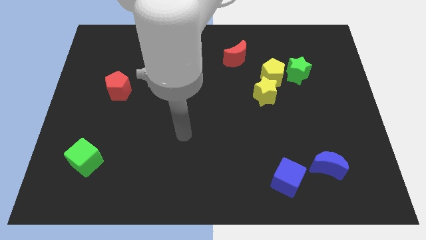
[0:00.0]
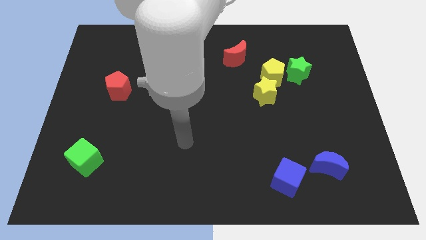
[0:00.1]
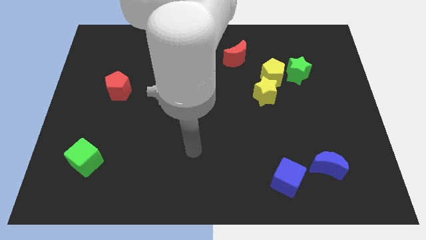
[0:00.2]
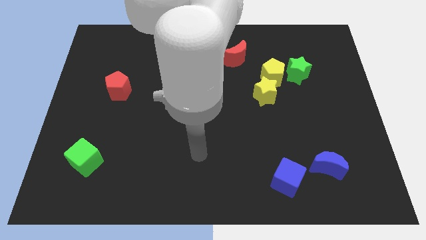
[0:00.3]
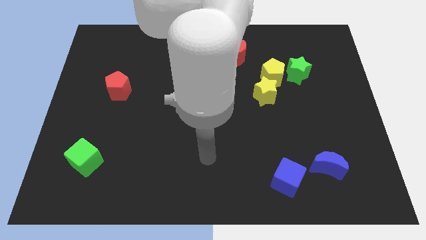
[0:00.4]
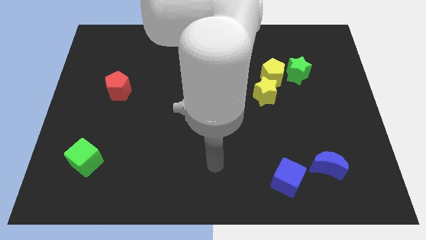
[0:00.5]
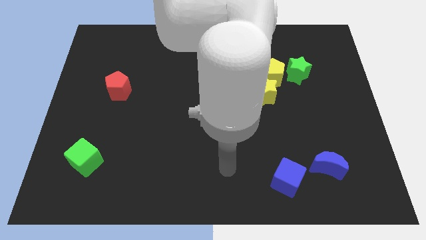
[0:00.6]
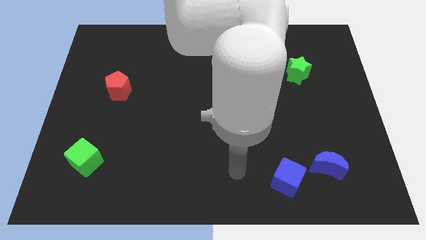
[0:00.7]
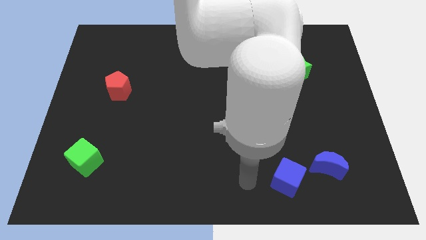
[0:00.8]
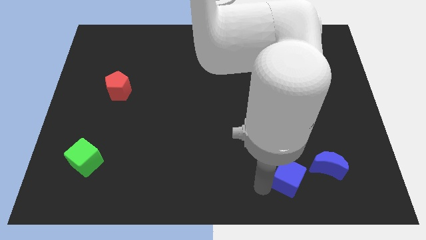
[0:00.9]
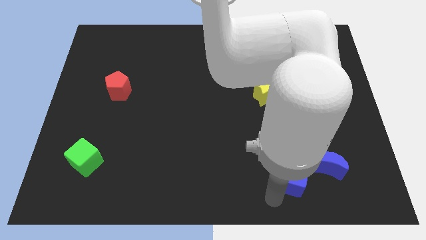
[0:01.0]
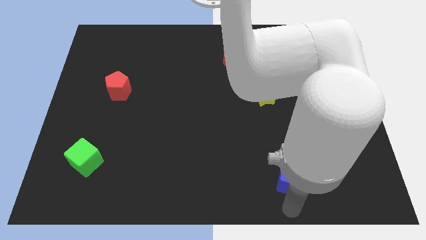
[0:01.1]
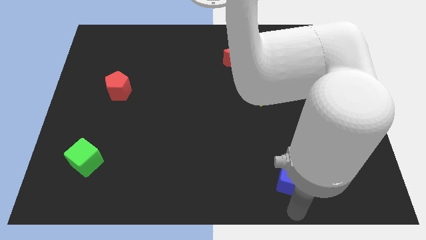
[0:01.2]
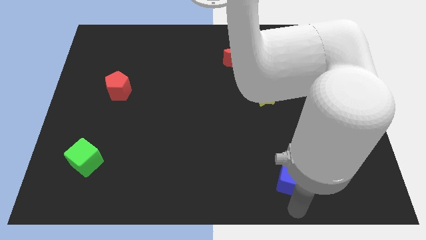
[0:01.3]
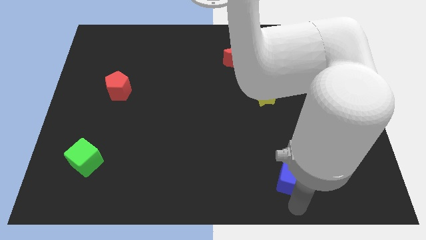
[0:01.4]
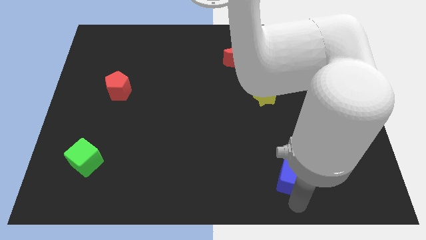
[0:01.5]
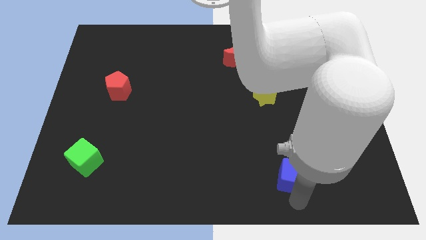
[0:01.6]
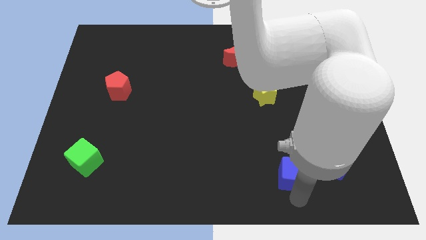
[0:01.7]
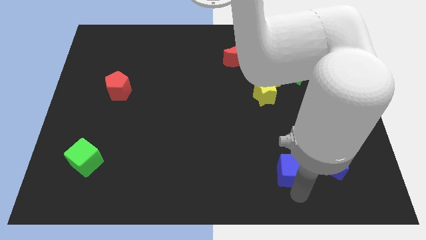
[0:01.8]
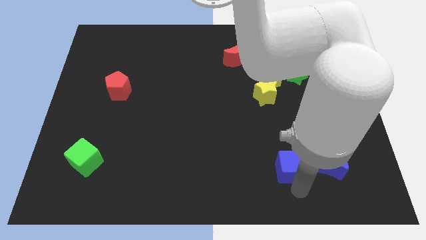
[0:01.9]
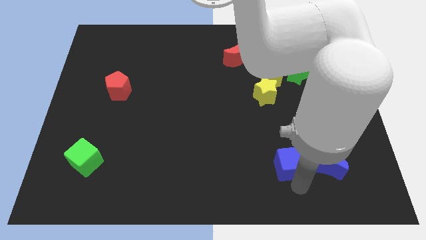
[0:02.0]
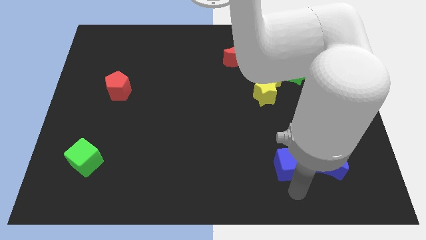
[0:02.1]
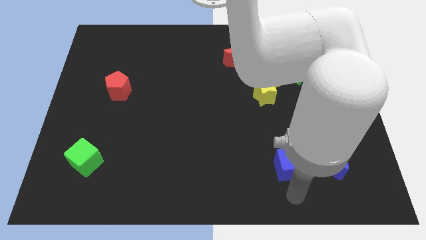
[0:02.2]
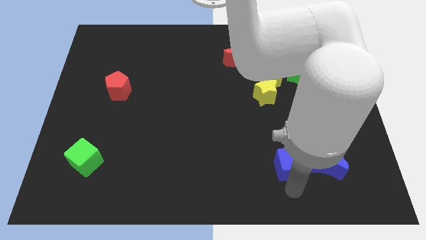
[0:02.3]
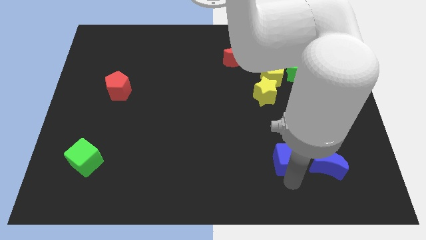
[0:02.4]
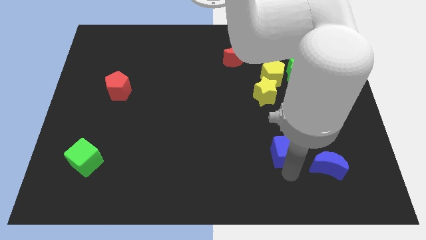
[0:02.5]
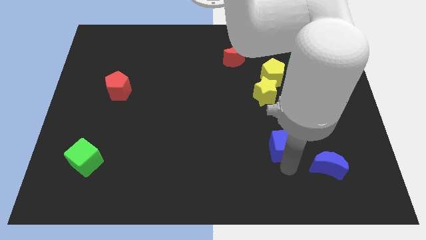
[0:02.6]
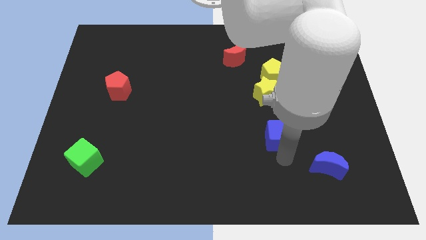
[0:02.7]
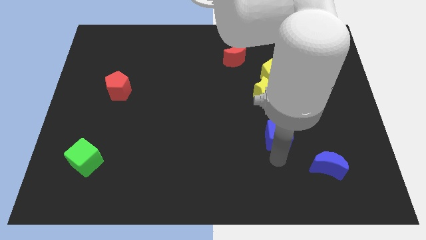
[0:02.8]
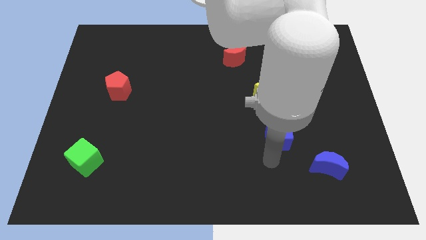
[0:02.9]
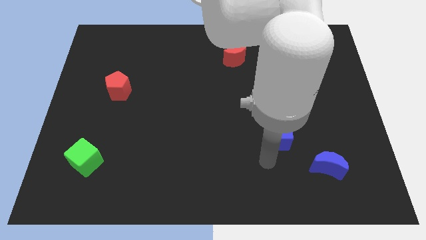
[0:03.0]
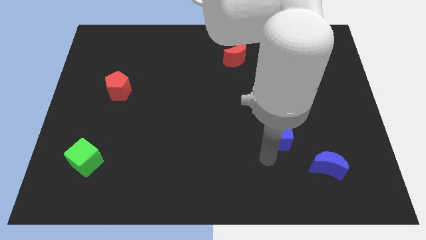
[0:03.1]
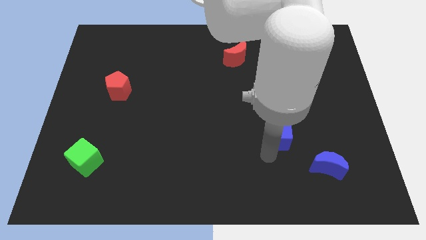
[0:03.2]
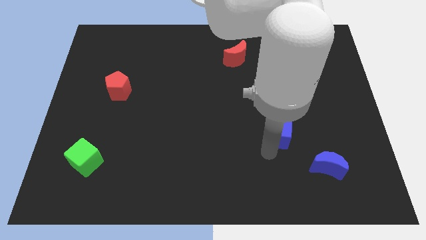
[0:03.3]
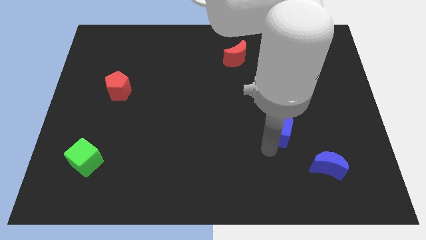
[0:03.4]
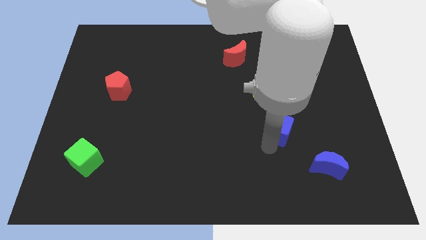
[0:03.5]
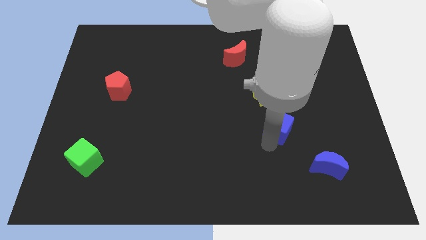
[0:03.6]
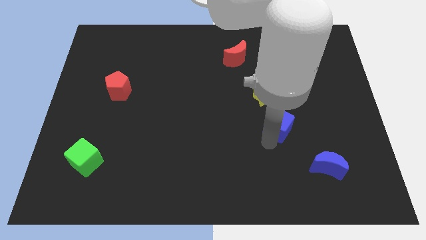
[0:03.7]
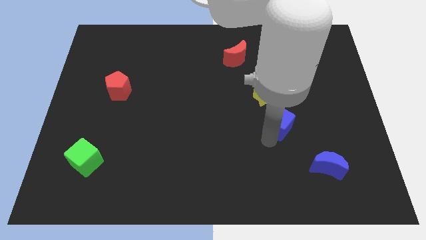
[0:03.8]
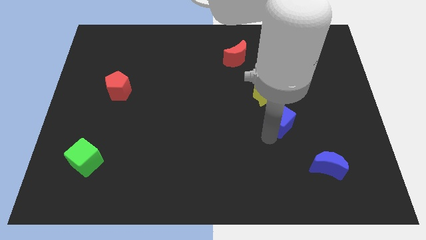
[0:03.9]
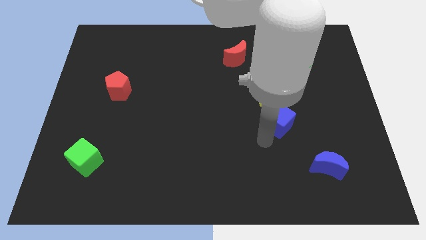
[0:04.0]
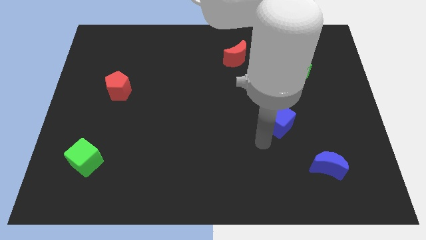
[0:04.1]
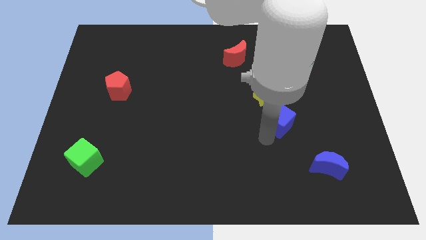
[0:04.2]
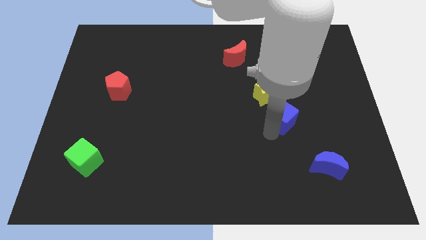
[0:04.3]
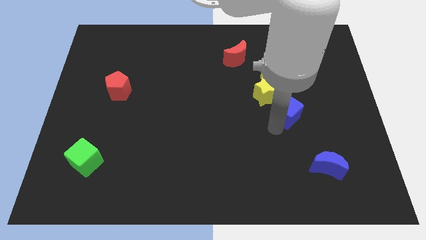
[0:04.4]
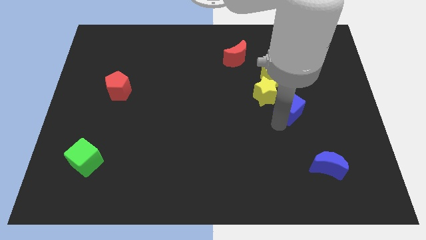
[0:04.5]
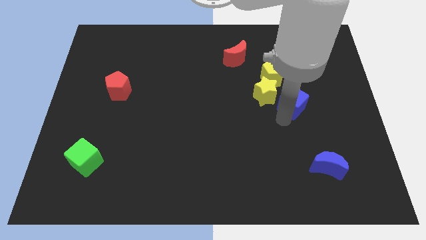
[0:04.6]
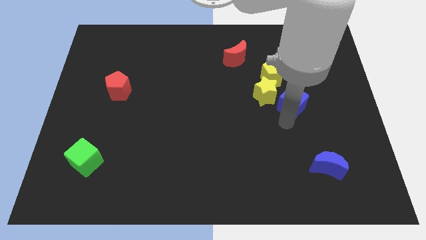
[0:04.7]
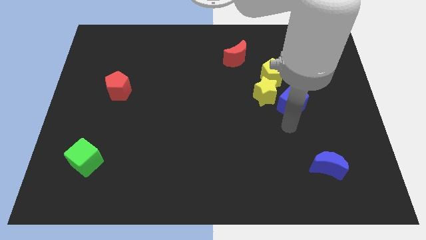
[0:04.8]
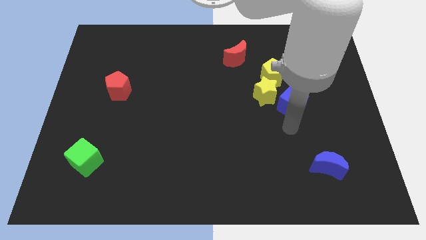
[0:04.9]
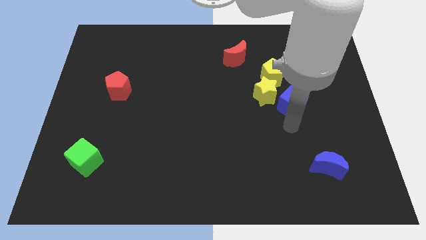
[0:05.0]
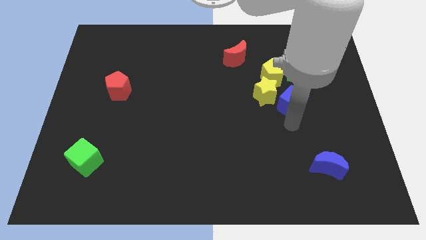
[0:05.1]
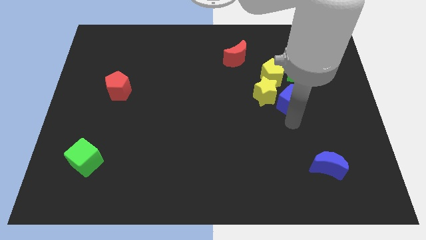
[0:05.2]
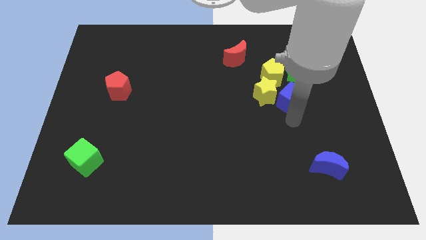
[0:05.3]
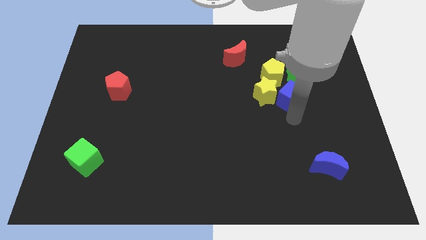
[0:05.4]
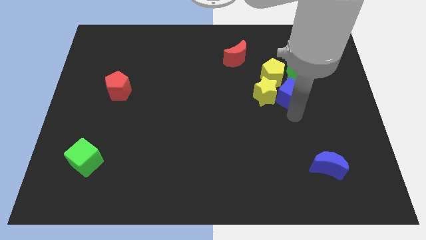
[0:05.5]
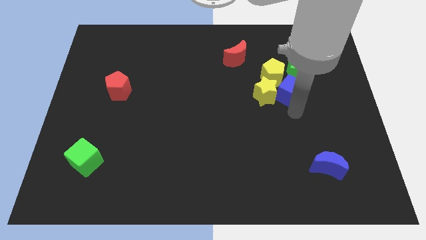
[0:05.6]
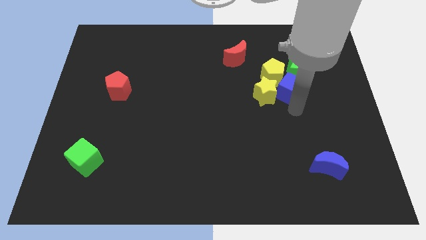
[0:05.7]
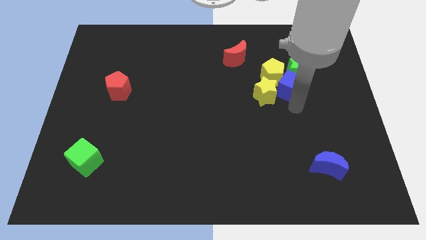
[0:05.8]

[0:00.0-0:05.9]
move the blue cube towards the green star
